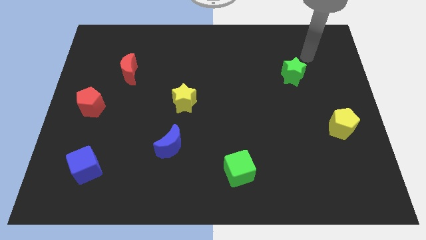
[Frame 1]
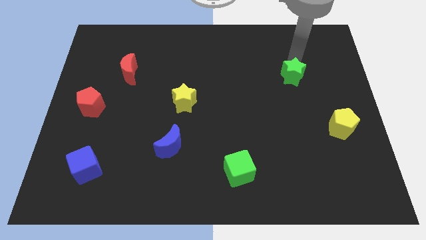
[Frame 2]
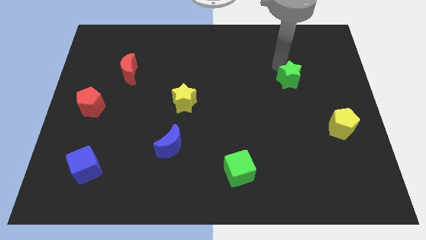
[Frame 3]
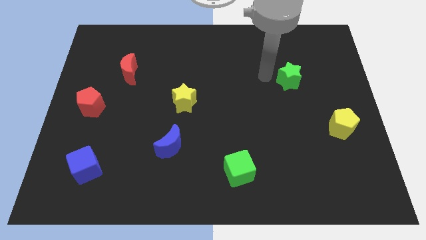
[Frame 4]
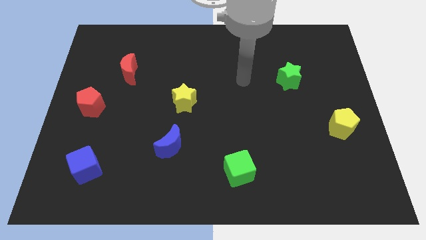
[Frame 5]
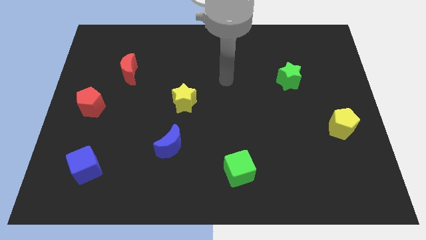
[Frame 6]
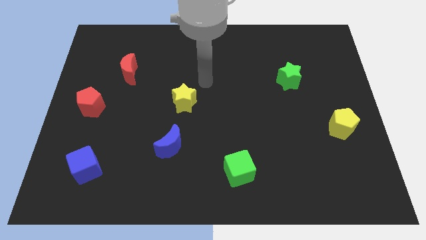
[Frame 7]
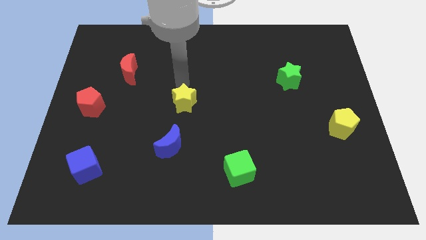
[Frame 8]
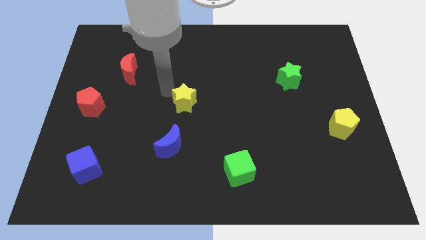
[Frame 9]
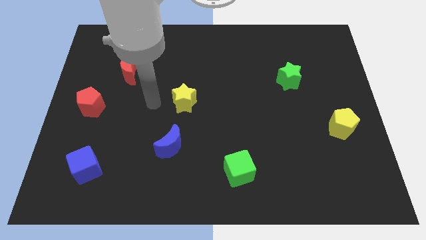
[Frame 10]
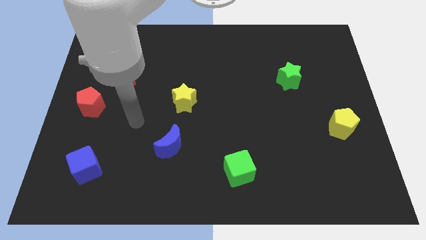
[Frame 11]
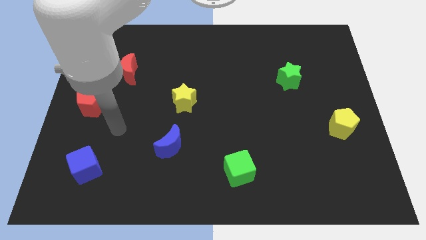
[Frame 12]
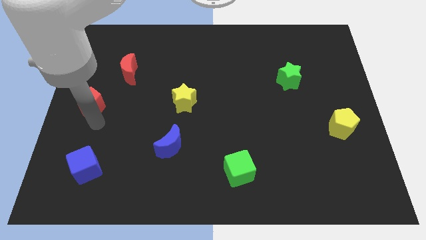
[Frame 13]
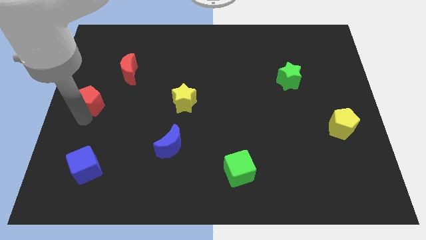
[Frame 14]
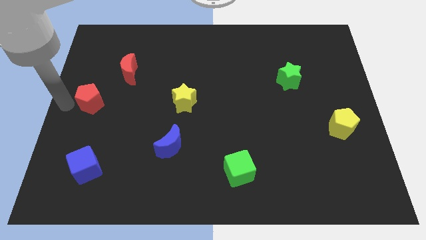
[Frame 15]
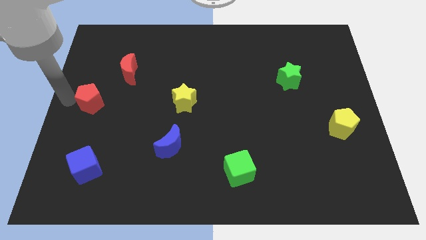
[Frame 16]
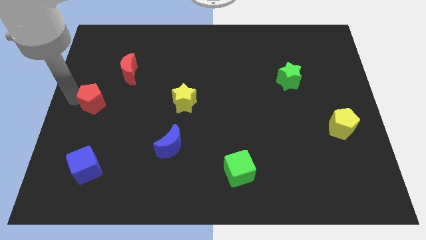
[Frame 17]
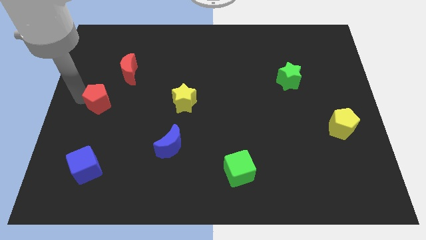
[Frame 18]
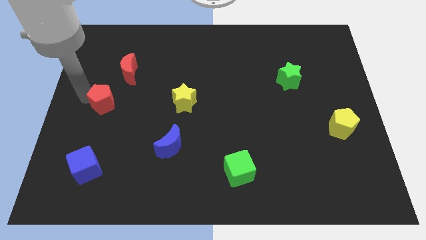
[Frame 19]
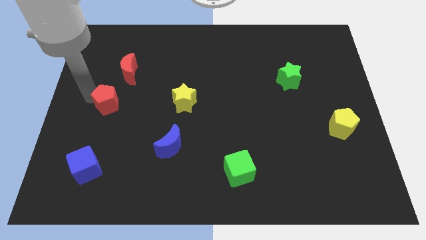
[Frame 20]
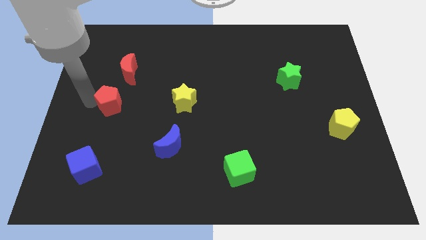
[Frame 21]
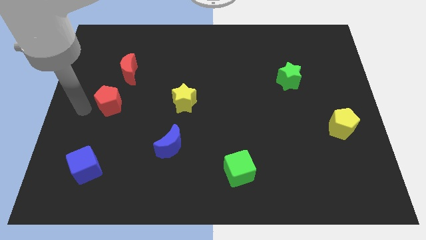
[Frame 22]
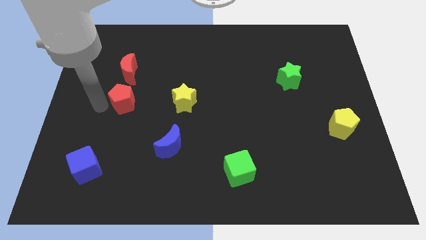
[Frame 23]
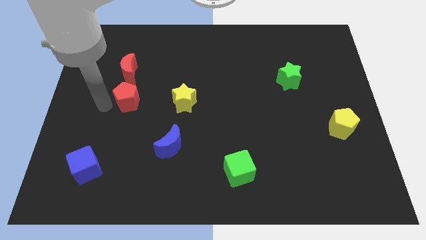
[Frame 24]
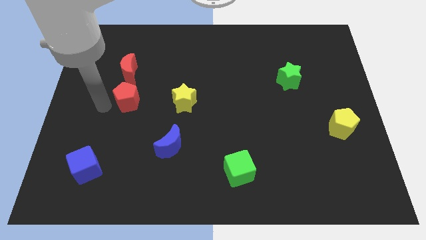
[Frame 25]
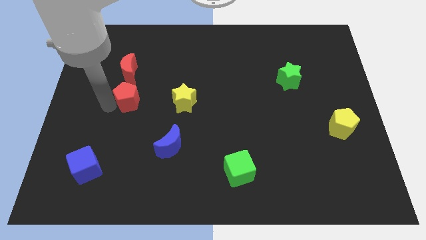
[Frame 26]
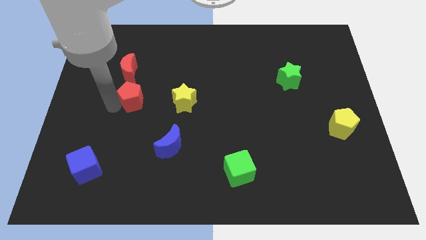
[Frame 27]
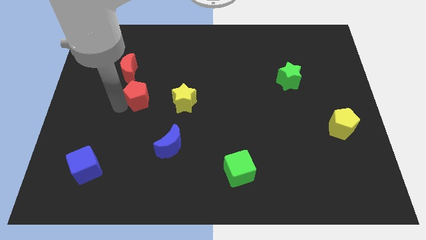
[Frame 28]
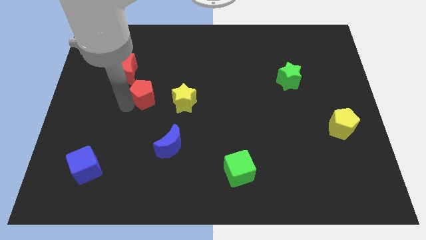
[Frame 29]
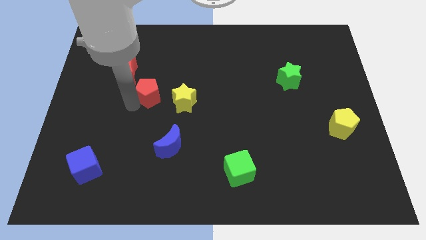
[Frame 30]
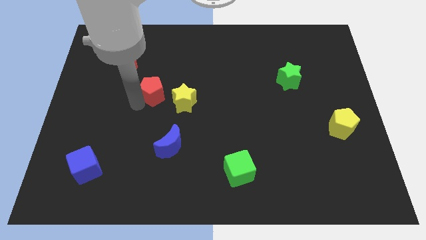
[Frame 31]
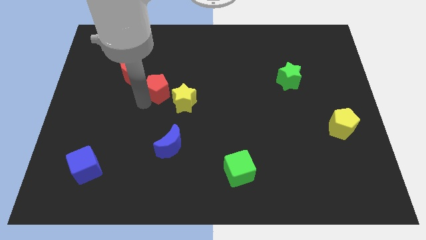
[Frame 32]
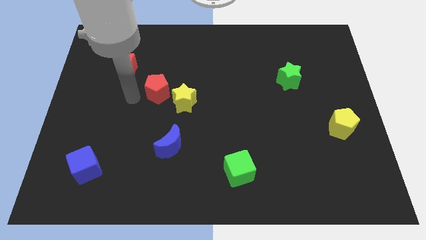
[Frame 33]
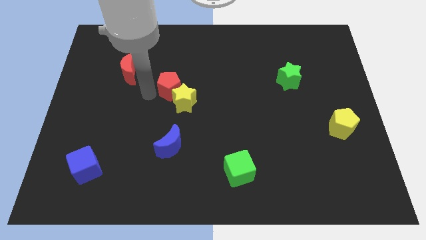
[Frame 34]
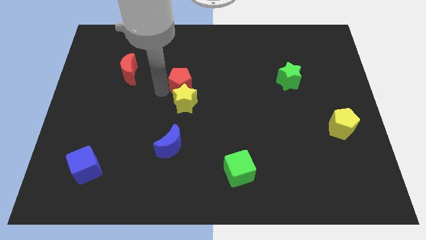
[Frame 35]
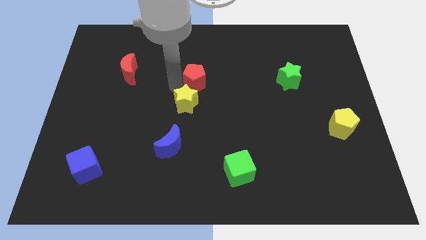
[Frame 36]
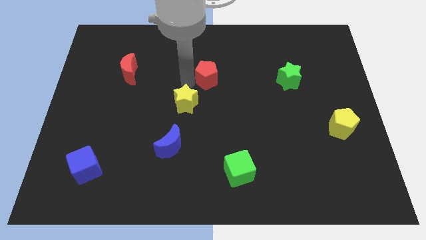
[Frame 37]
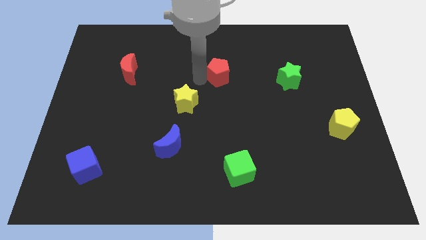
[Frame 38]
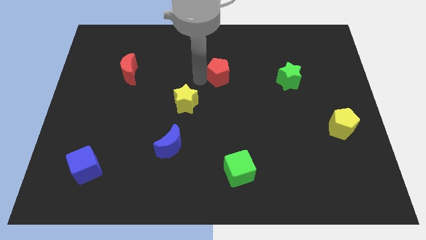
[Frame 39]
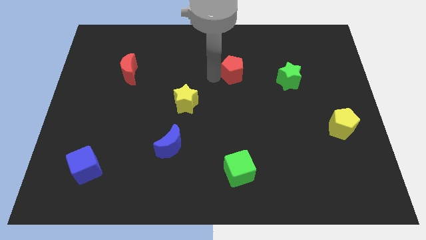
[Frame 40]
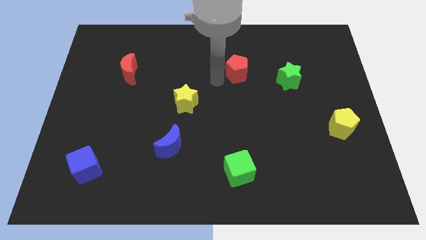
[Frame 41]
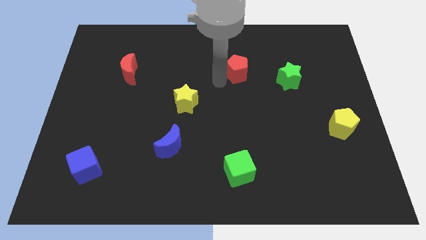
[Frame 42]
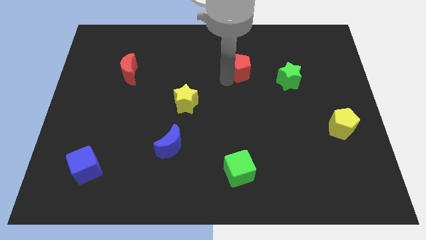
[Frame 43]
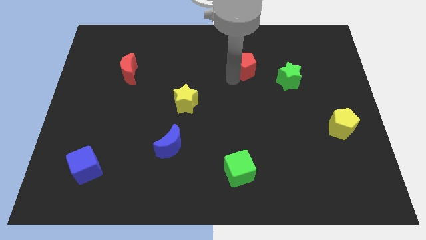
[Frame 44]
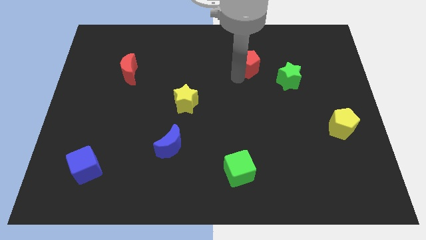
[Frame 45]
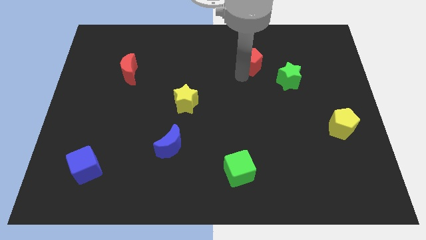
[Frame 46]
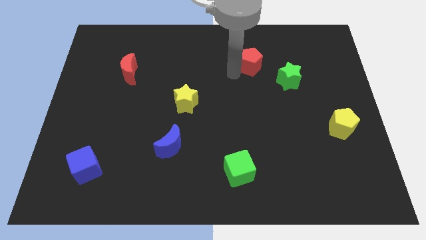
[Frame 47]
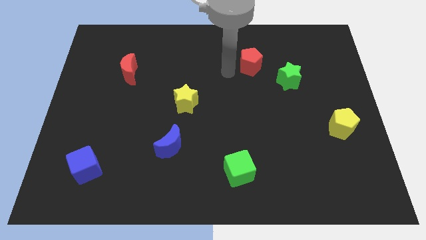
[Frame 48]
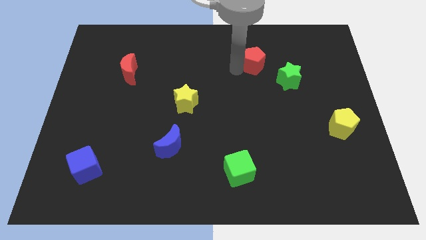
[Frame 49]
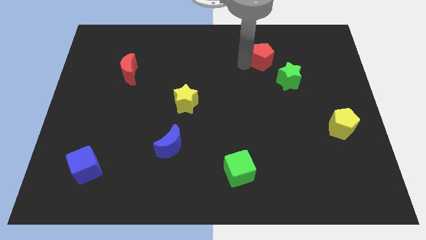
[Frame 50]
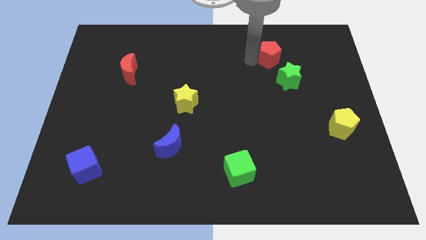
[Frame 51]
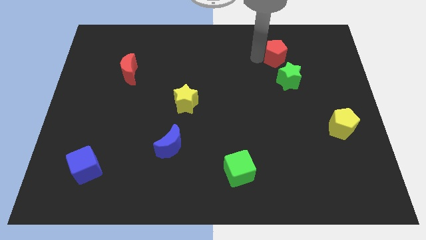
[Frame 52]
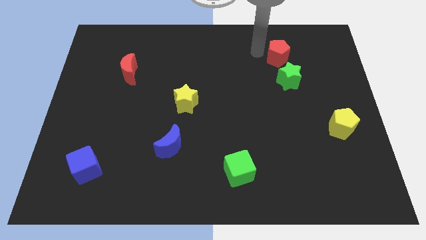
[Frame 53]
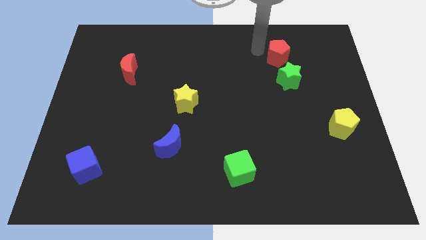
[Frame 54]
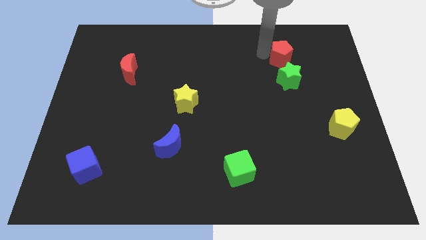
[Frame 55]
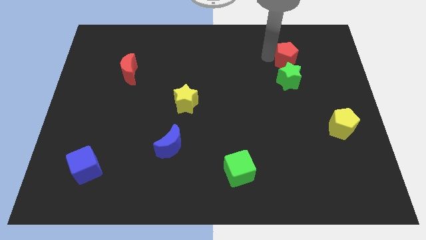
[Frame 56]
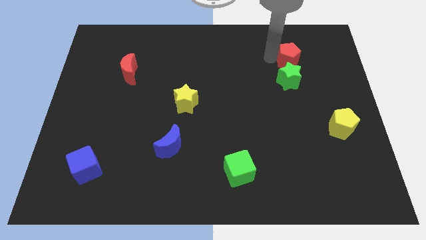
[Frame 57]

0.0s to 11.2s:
push the red pentagon to the top right of the green star

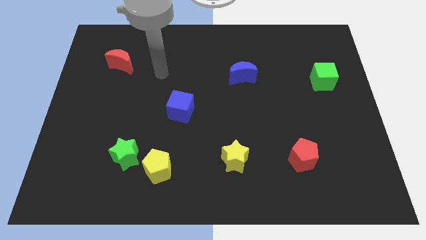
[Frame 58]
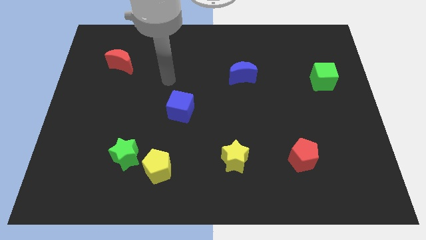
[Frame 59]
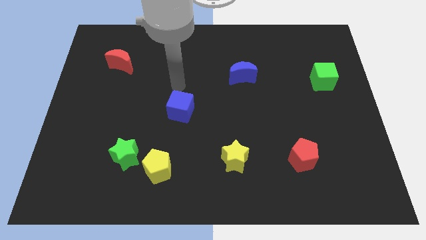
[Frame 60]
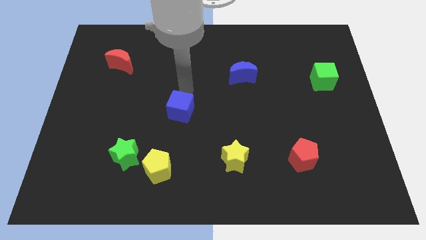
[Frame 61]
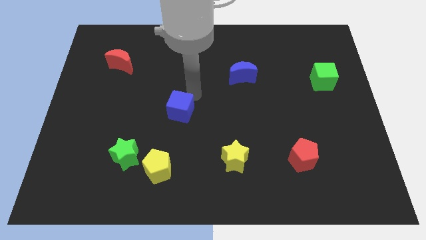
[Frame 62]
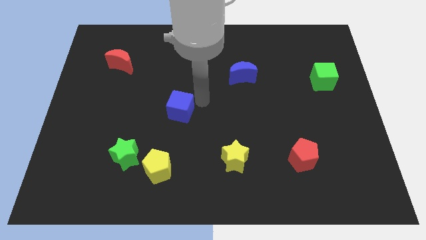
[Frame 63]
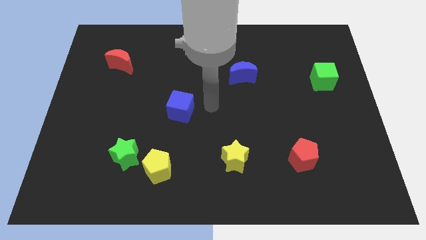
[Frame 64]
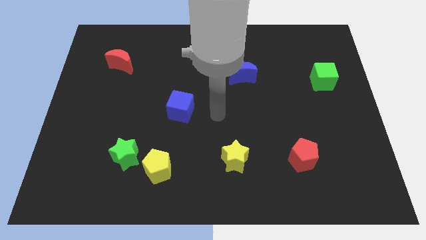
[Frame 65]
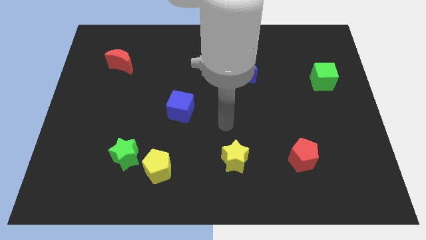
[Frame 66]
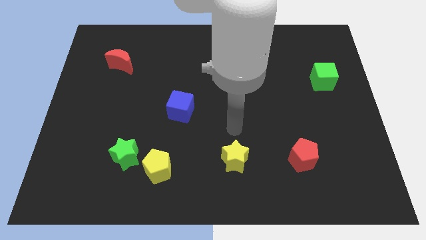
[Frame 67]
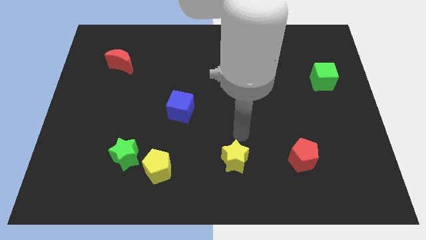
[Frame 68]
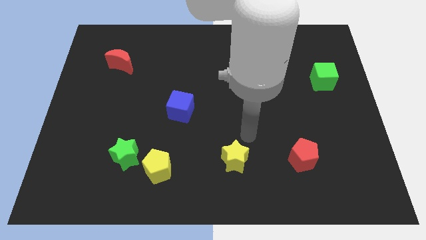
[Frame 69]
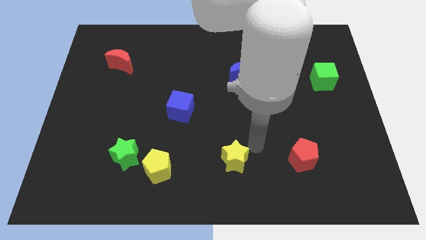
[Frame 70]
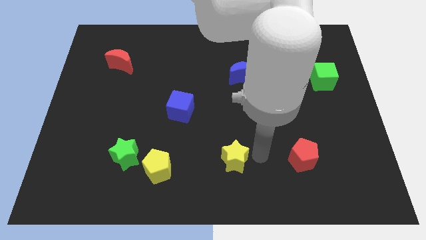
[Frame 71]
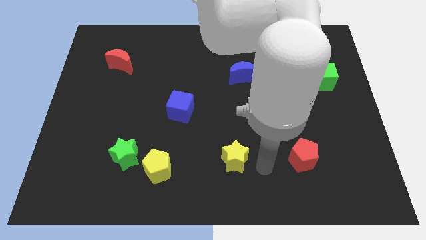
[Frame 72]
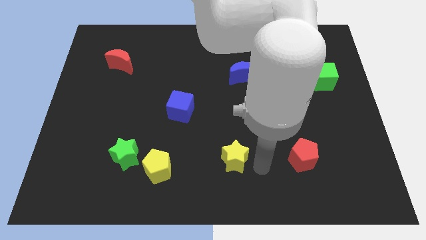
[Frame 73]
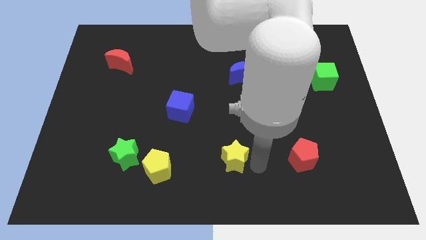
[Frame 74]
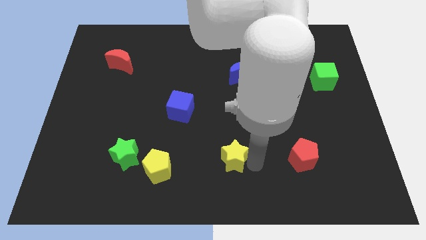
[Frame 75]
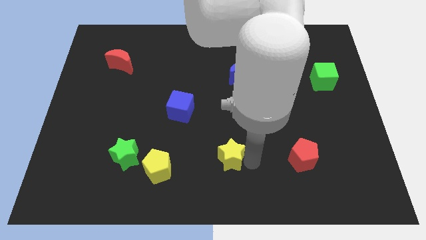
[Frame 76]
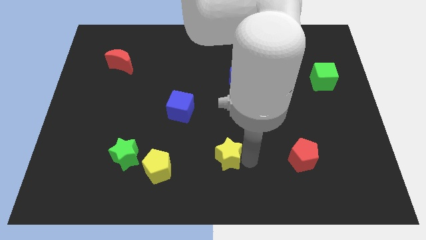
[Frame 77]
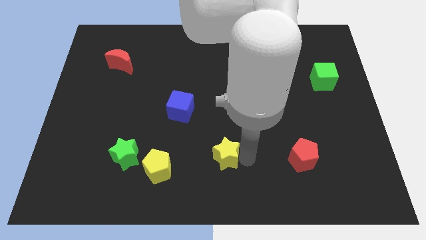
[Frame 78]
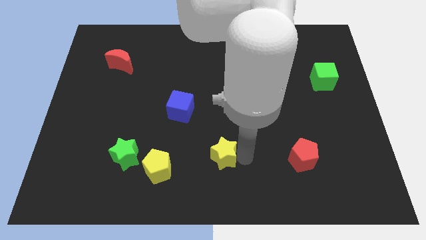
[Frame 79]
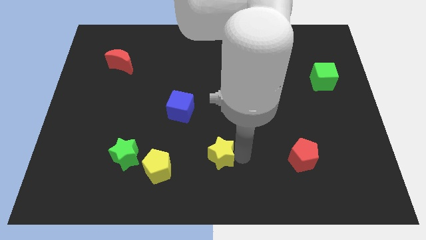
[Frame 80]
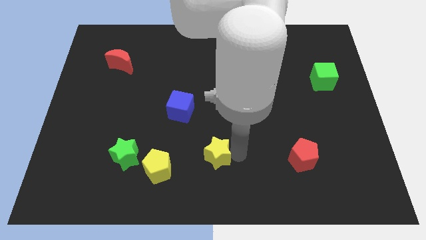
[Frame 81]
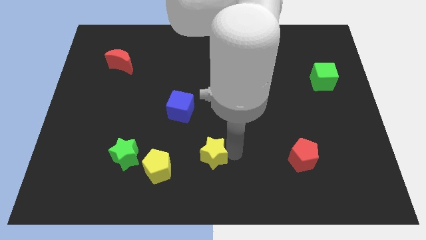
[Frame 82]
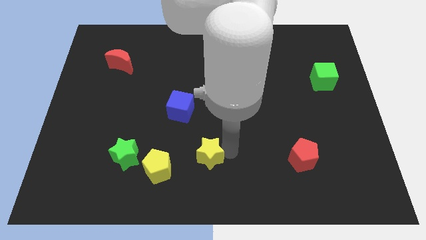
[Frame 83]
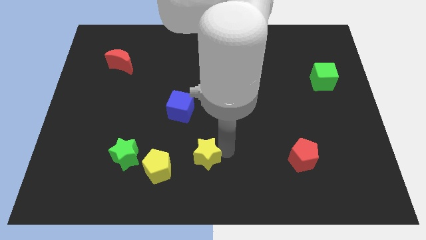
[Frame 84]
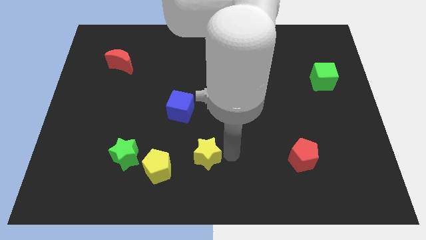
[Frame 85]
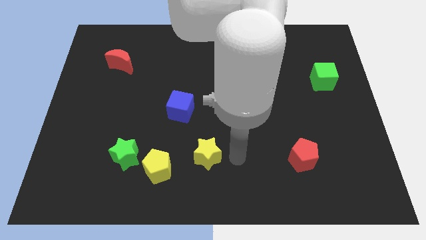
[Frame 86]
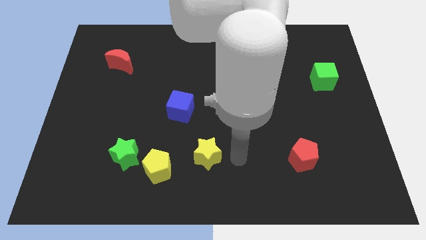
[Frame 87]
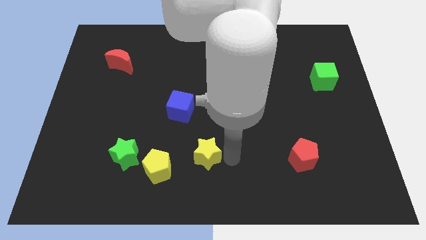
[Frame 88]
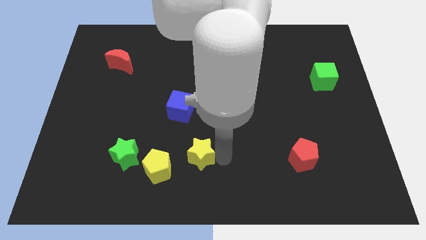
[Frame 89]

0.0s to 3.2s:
push the yellow star to the right of the green star
